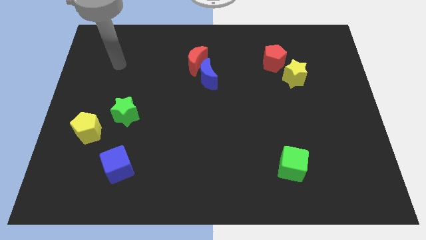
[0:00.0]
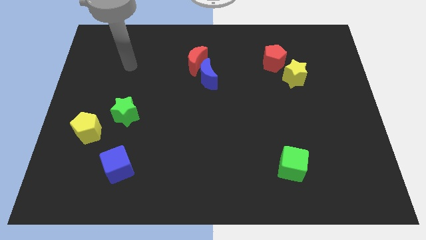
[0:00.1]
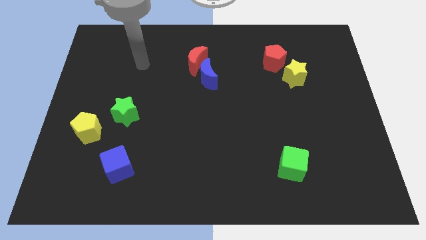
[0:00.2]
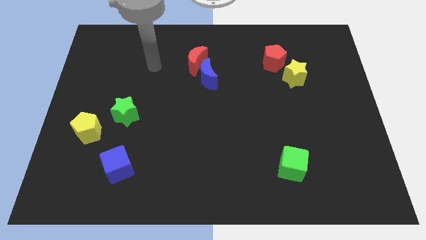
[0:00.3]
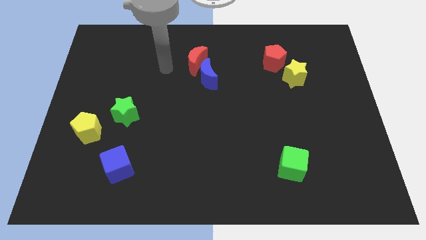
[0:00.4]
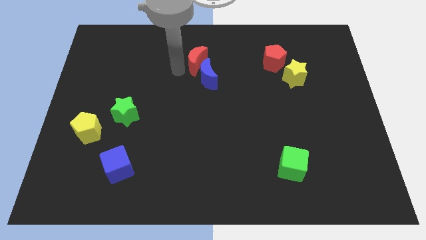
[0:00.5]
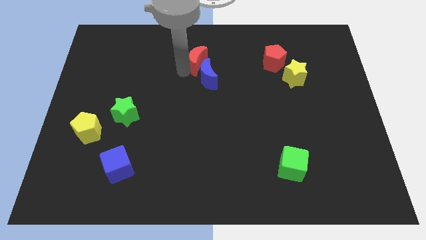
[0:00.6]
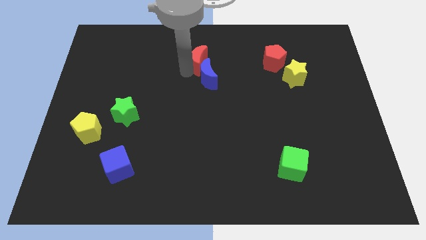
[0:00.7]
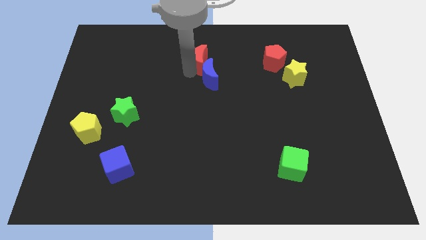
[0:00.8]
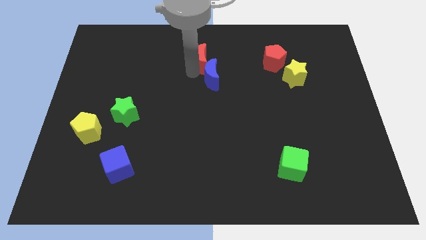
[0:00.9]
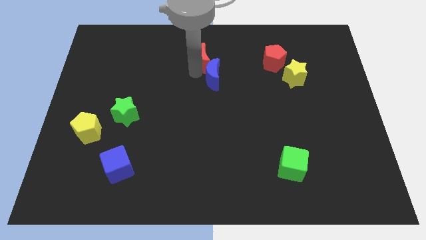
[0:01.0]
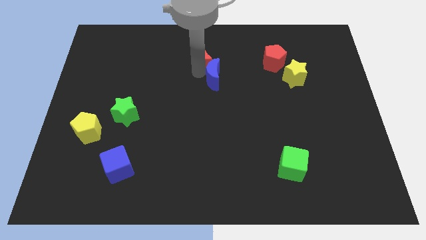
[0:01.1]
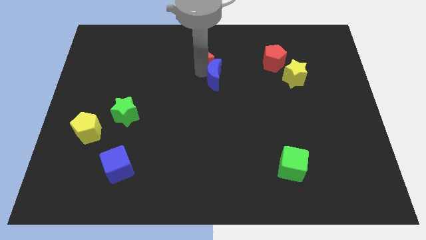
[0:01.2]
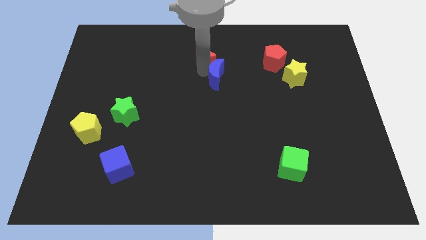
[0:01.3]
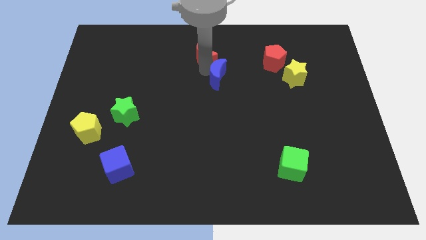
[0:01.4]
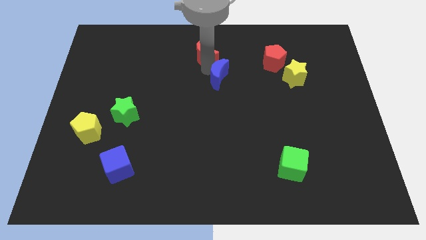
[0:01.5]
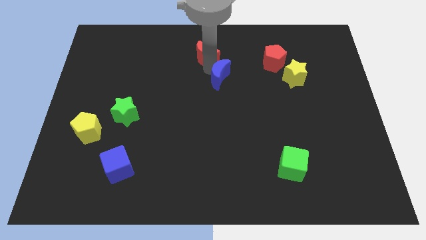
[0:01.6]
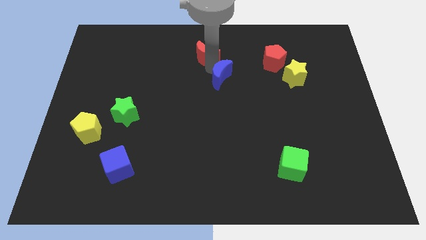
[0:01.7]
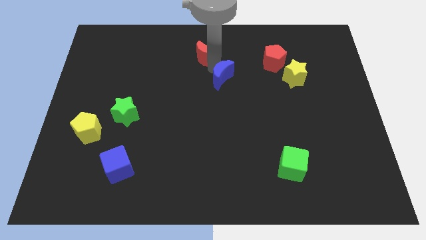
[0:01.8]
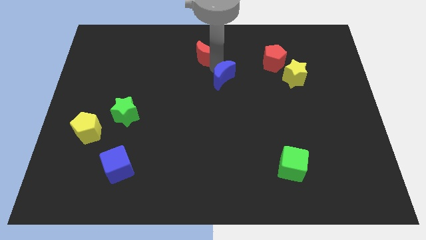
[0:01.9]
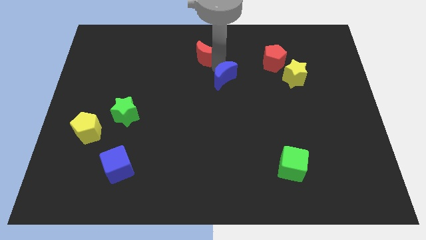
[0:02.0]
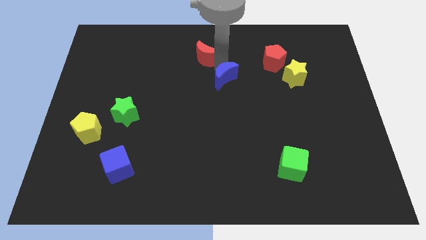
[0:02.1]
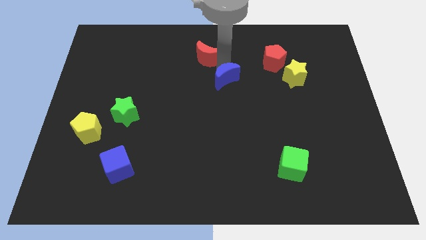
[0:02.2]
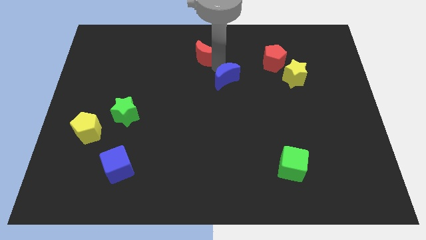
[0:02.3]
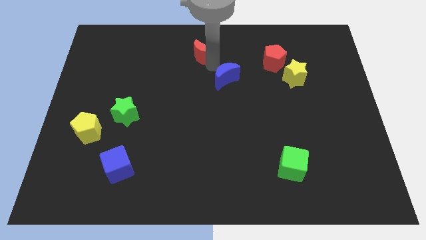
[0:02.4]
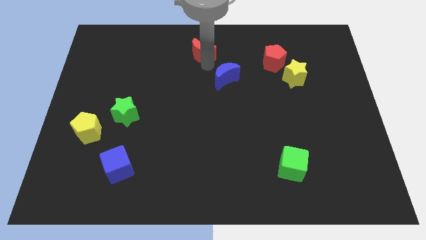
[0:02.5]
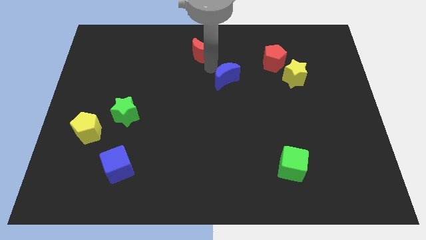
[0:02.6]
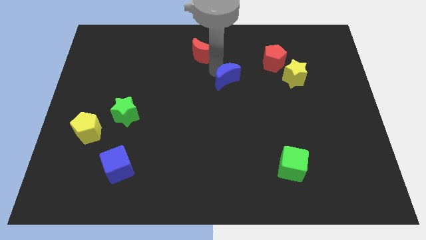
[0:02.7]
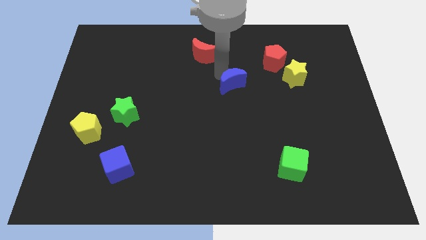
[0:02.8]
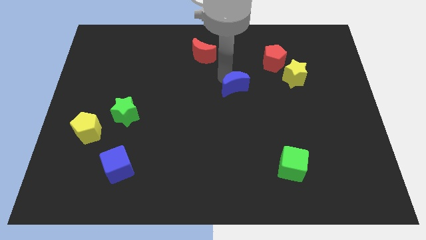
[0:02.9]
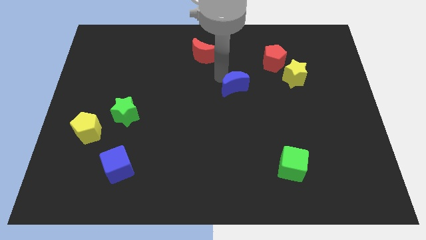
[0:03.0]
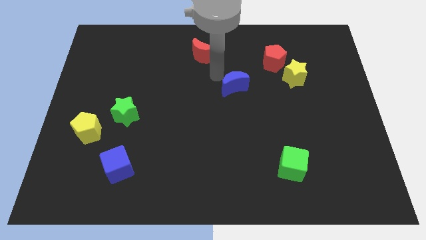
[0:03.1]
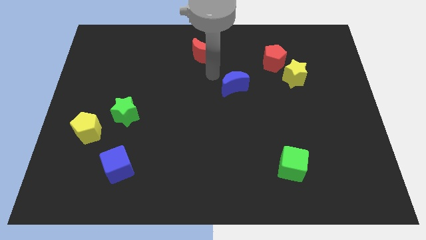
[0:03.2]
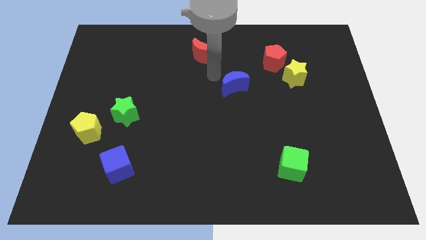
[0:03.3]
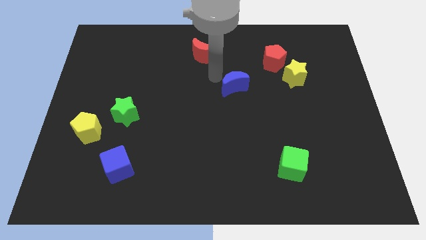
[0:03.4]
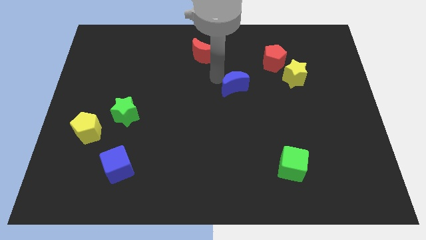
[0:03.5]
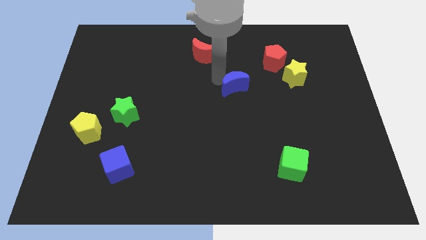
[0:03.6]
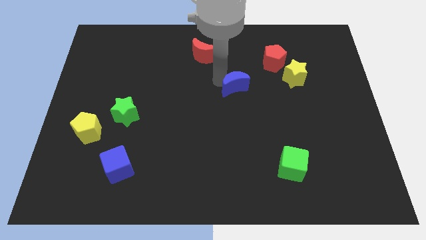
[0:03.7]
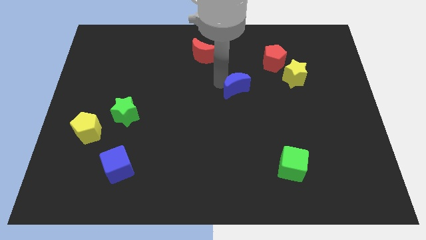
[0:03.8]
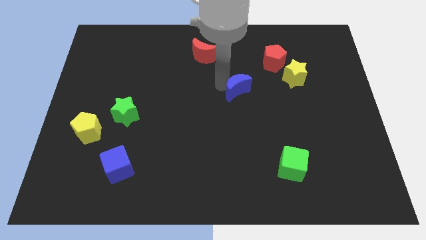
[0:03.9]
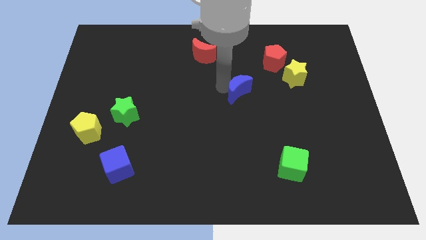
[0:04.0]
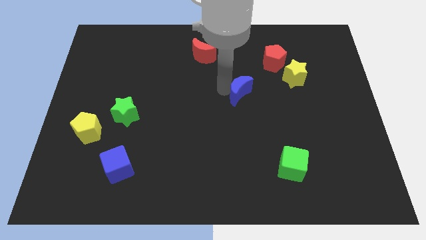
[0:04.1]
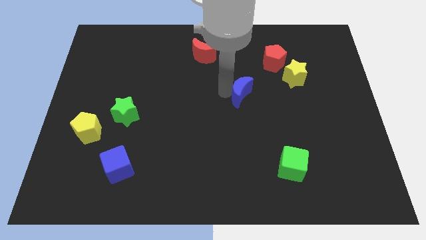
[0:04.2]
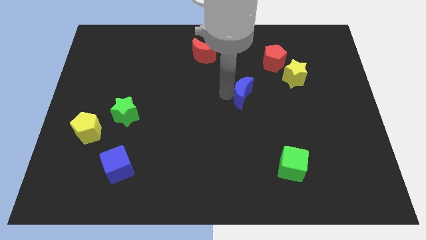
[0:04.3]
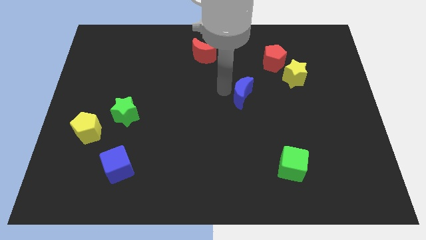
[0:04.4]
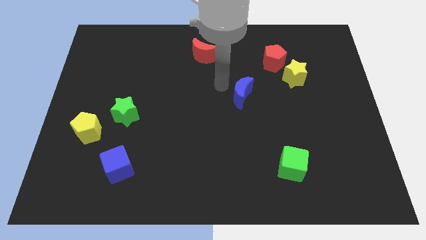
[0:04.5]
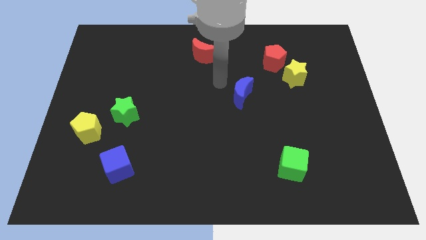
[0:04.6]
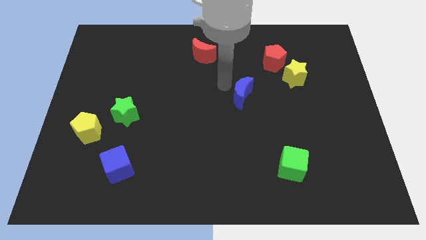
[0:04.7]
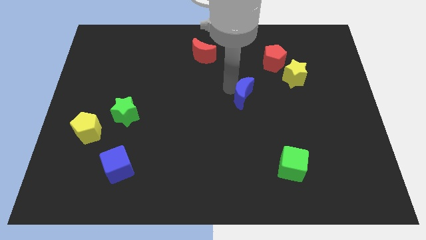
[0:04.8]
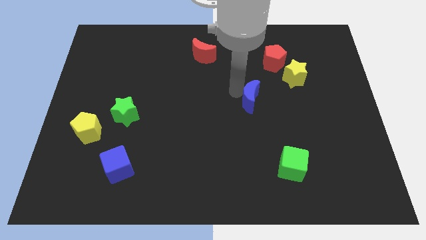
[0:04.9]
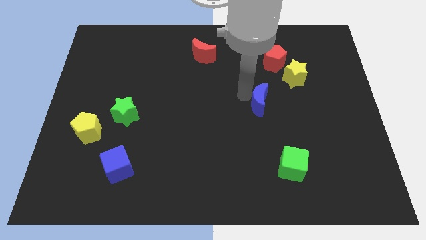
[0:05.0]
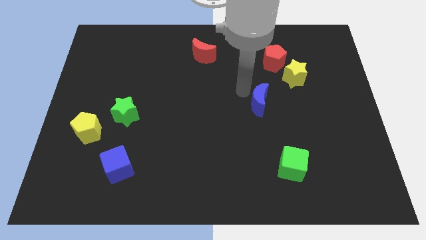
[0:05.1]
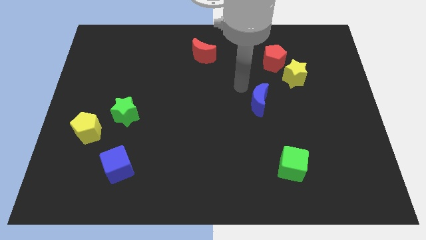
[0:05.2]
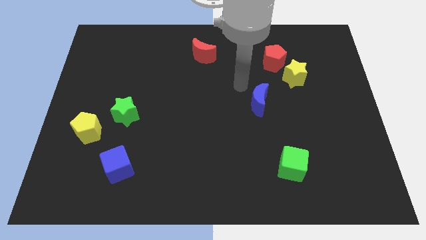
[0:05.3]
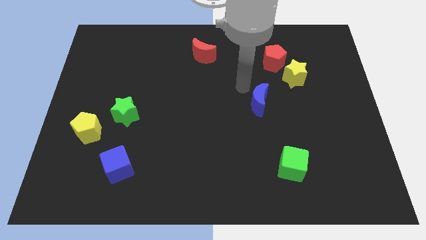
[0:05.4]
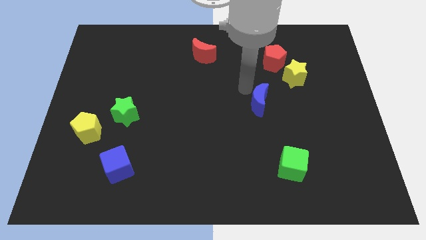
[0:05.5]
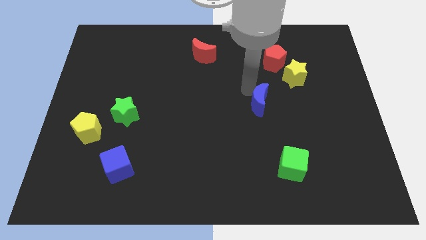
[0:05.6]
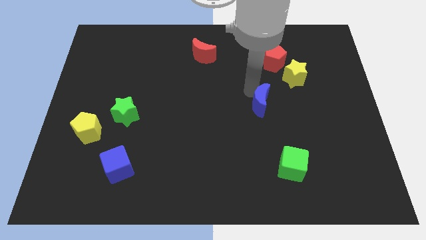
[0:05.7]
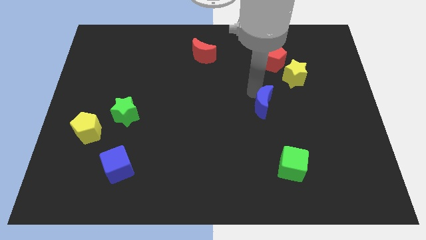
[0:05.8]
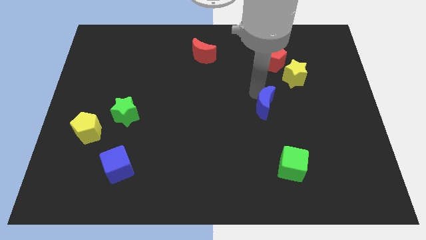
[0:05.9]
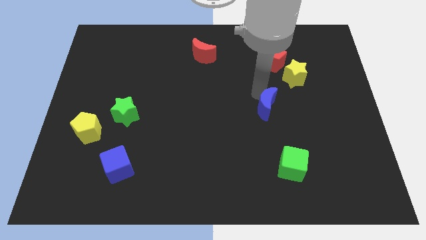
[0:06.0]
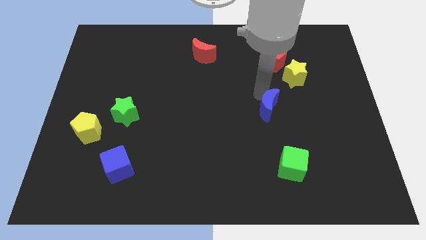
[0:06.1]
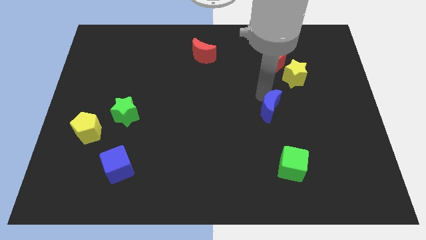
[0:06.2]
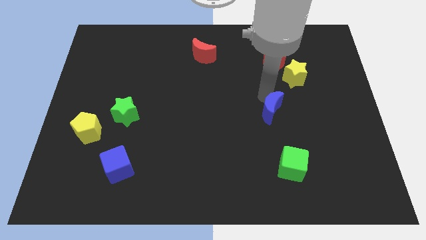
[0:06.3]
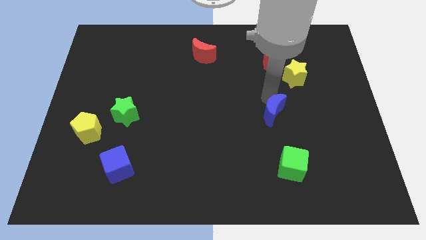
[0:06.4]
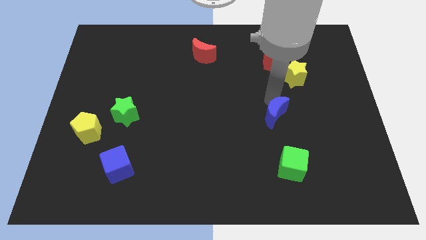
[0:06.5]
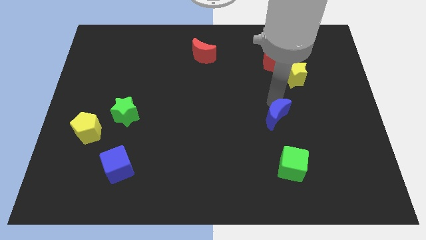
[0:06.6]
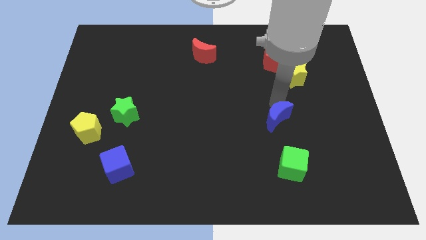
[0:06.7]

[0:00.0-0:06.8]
push the blue moon down and right diagonally

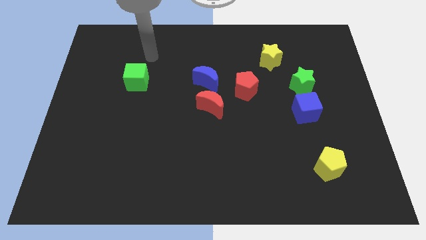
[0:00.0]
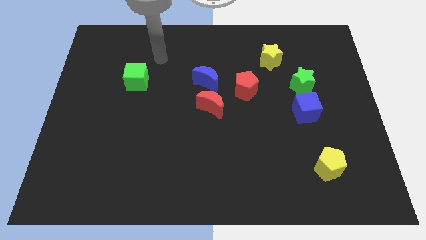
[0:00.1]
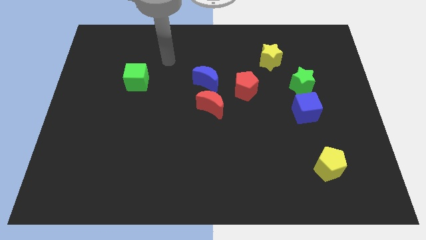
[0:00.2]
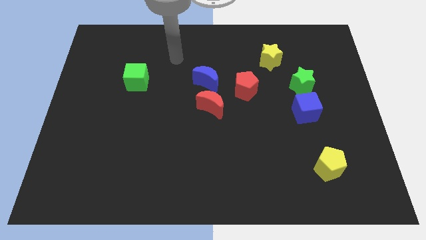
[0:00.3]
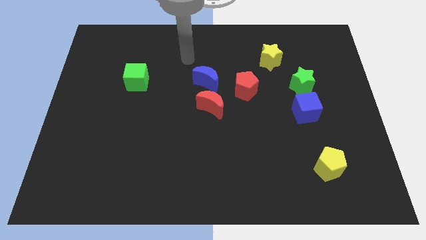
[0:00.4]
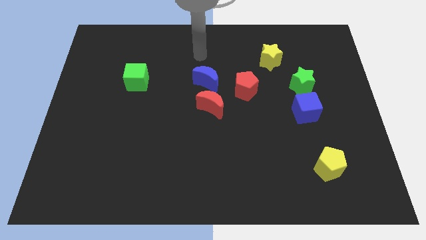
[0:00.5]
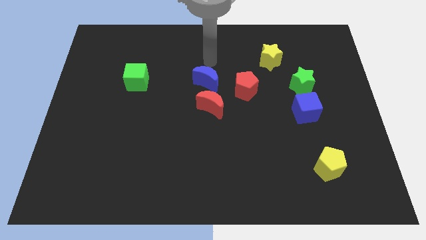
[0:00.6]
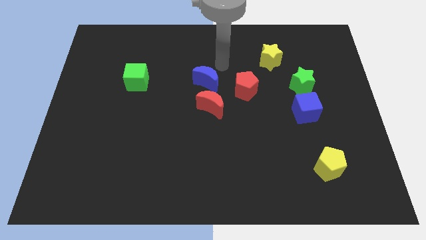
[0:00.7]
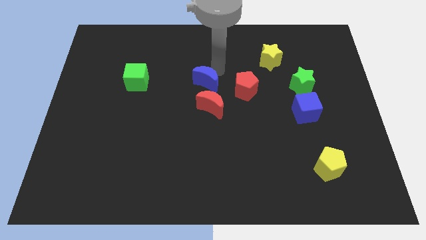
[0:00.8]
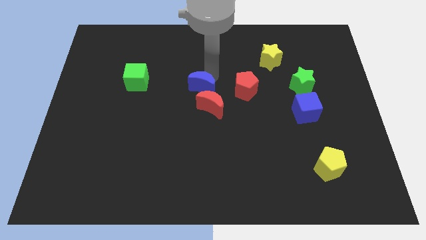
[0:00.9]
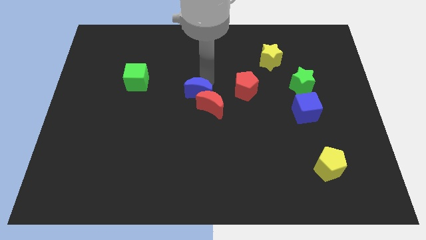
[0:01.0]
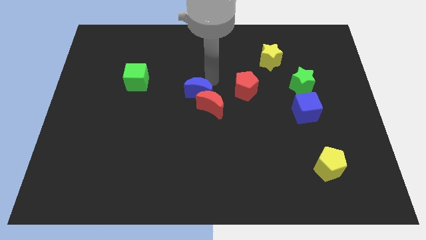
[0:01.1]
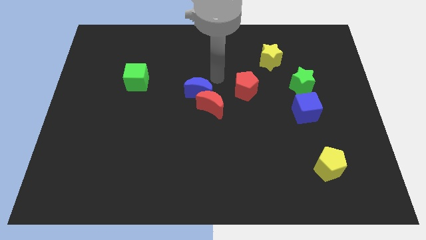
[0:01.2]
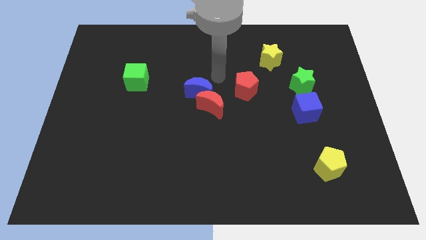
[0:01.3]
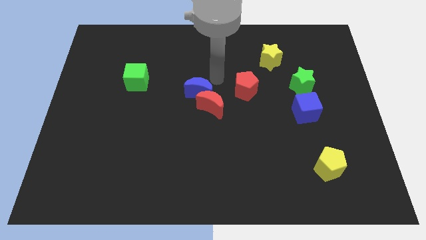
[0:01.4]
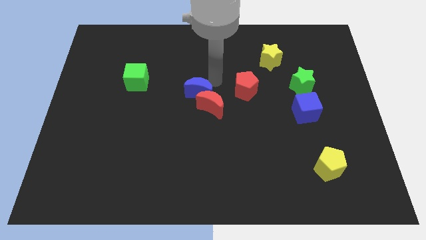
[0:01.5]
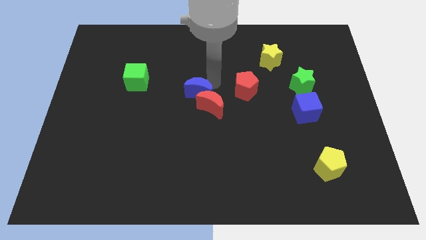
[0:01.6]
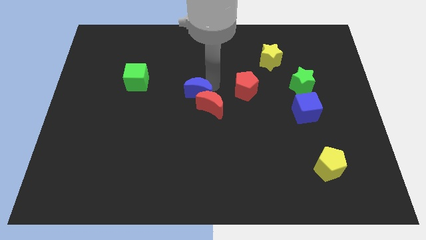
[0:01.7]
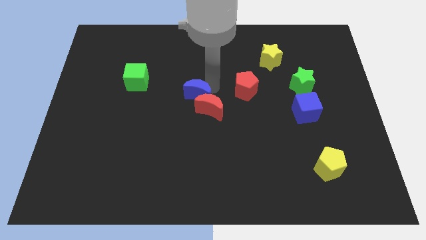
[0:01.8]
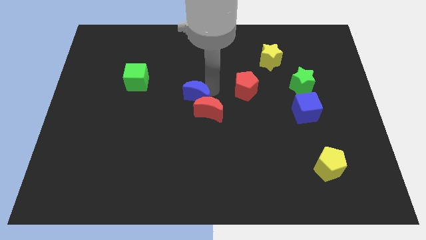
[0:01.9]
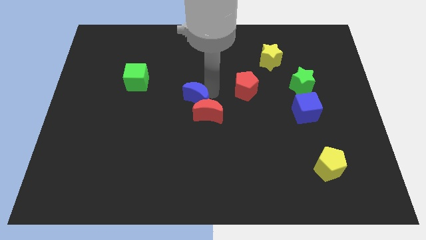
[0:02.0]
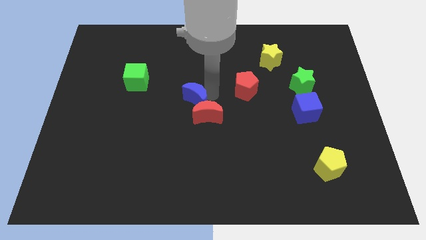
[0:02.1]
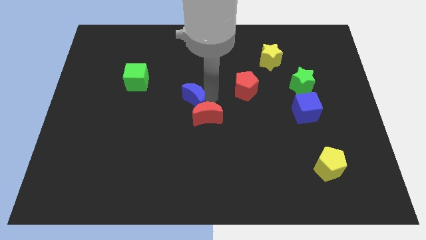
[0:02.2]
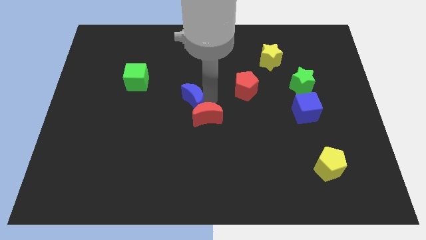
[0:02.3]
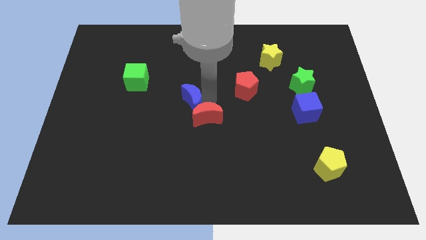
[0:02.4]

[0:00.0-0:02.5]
slide the blue moon diagonally downwards and left a little
